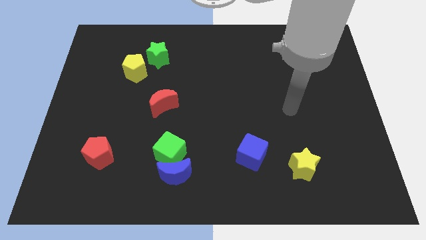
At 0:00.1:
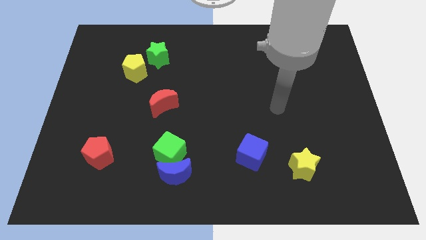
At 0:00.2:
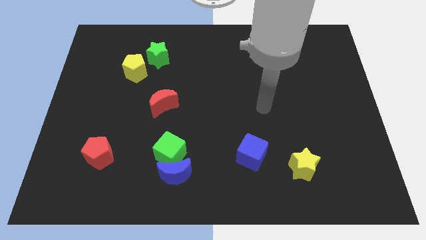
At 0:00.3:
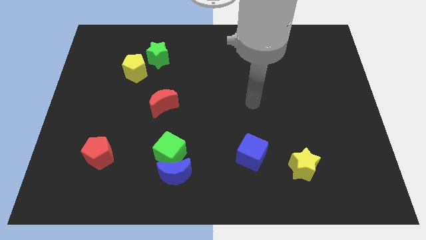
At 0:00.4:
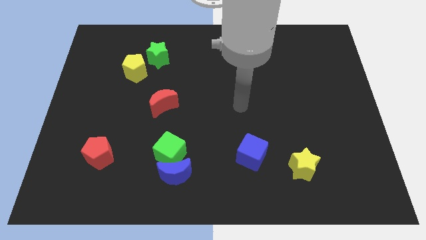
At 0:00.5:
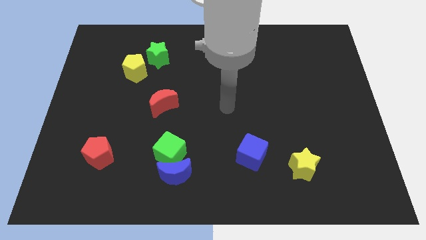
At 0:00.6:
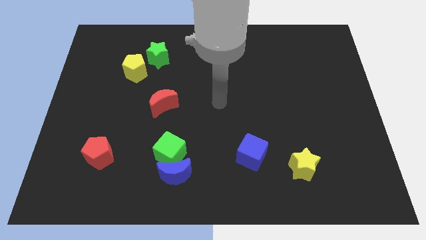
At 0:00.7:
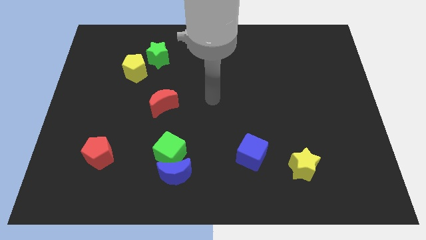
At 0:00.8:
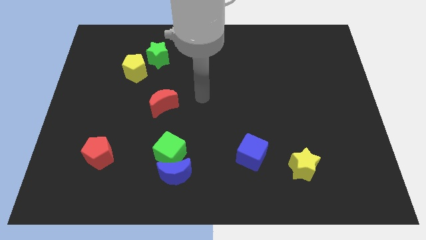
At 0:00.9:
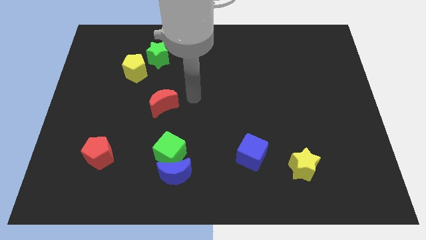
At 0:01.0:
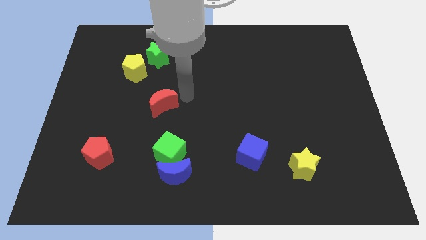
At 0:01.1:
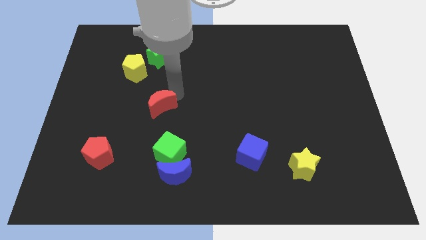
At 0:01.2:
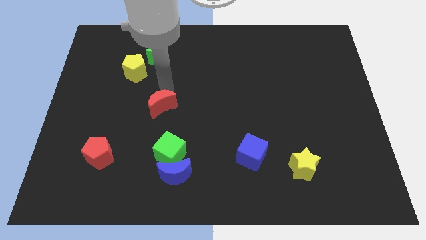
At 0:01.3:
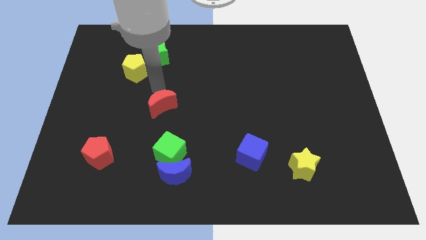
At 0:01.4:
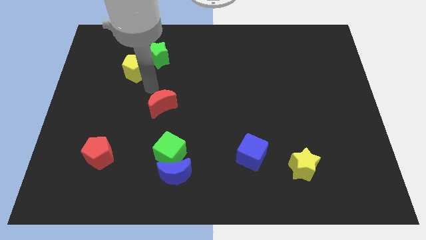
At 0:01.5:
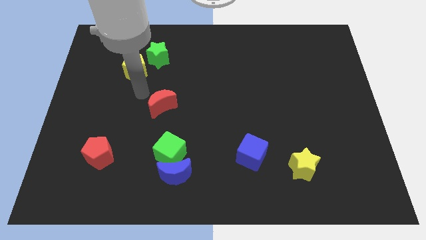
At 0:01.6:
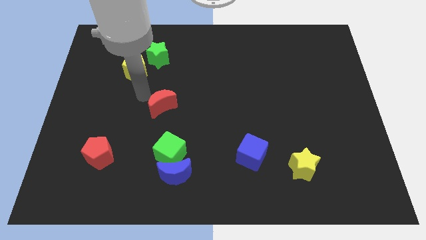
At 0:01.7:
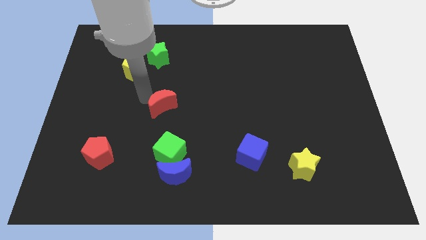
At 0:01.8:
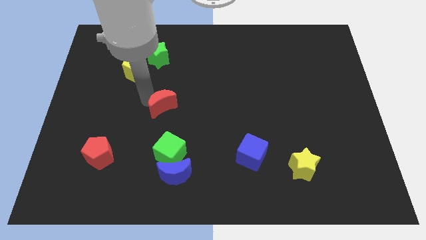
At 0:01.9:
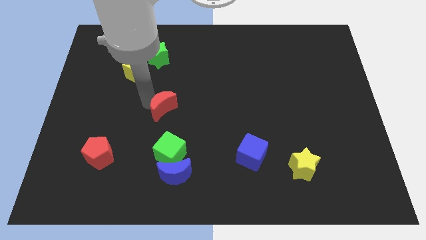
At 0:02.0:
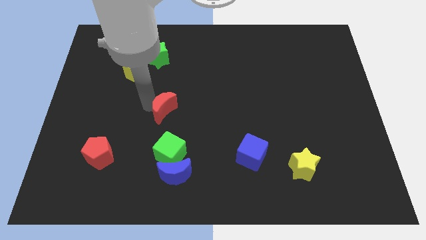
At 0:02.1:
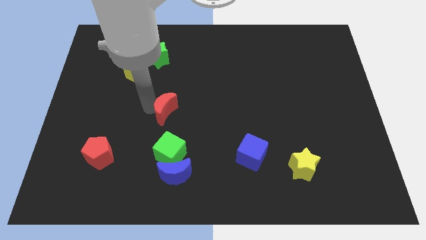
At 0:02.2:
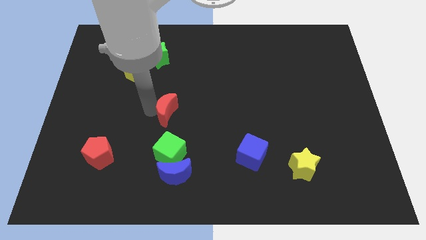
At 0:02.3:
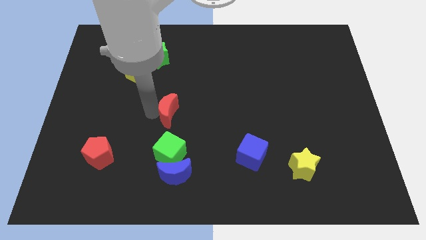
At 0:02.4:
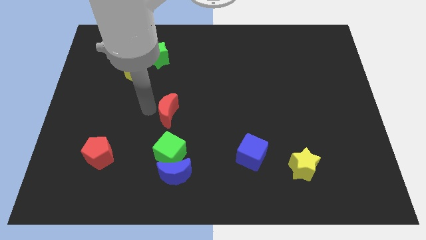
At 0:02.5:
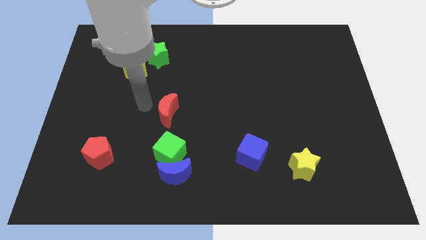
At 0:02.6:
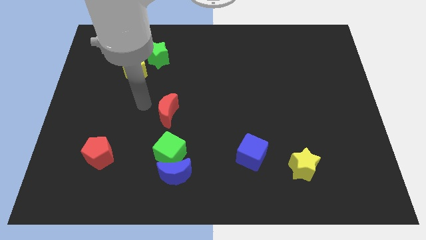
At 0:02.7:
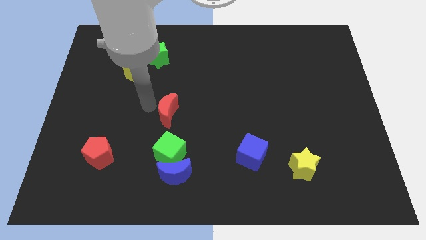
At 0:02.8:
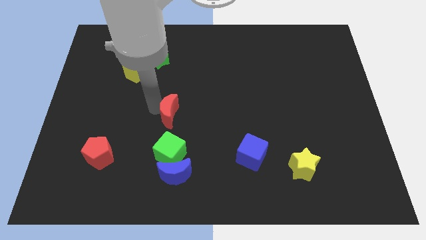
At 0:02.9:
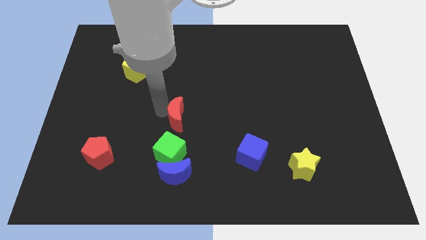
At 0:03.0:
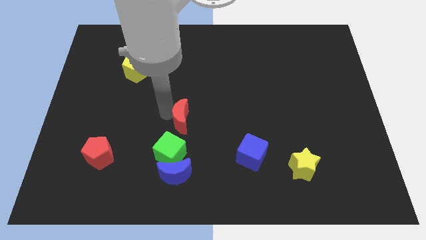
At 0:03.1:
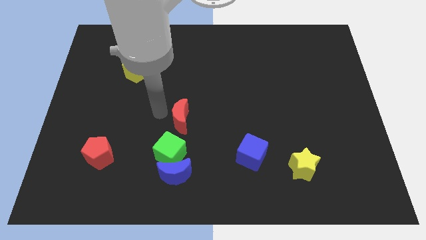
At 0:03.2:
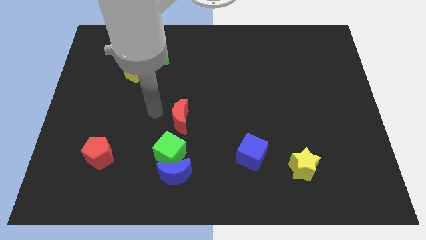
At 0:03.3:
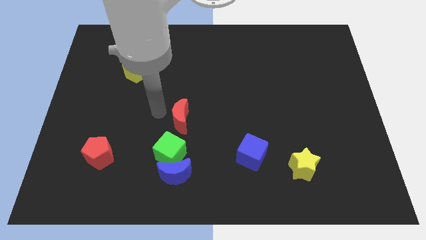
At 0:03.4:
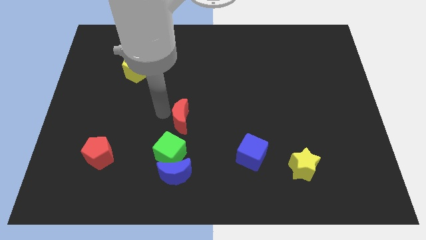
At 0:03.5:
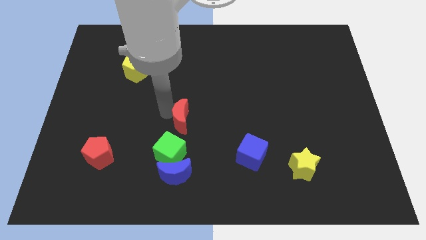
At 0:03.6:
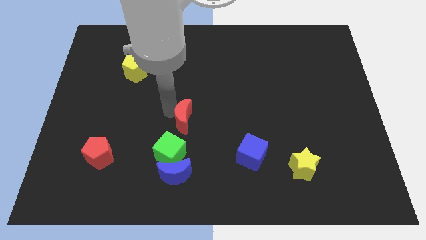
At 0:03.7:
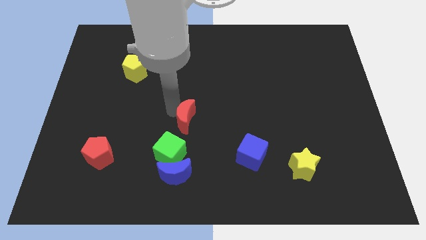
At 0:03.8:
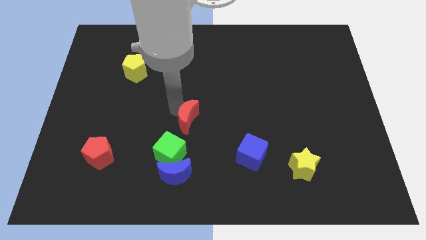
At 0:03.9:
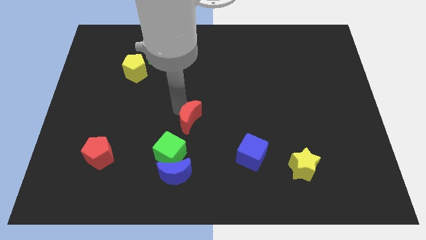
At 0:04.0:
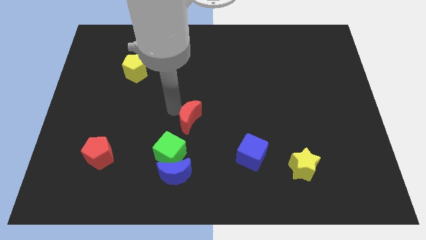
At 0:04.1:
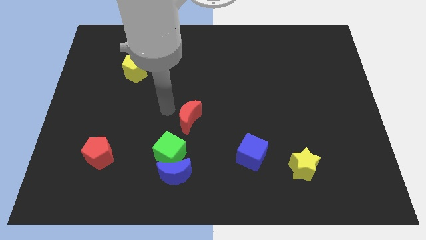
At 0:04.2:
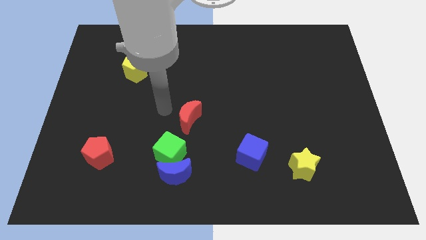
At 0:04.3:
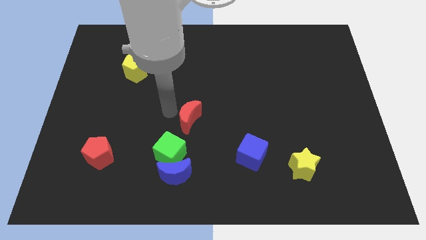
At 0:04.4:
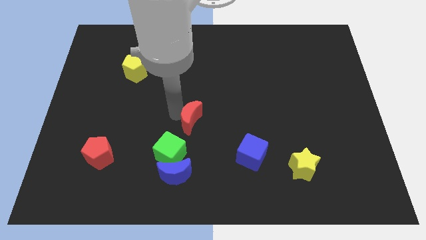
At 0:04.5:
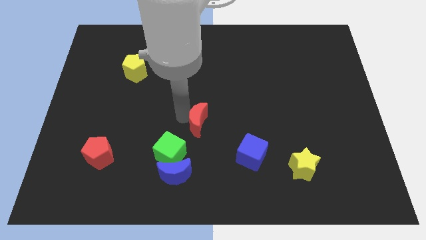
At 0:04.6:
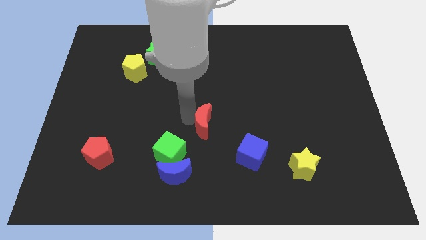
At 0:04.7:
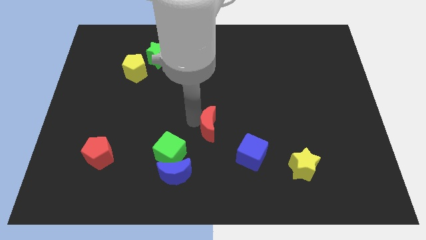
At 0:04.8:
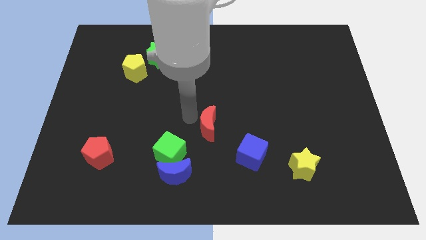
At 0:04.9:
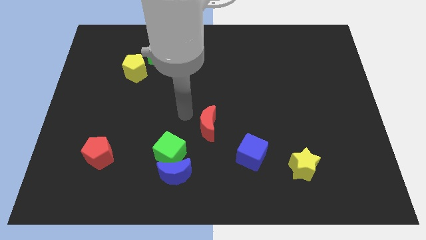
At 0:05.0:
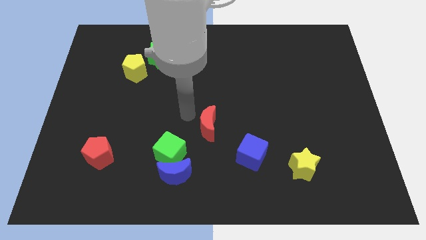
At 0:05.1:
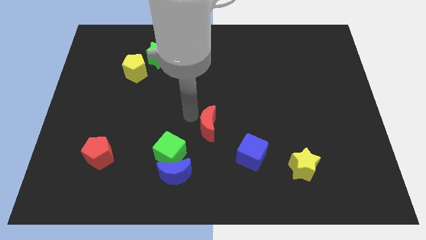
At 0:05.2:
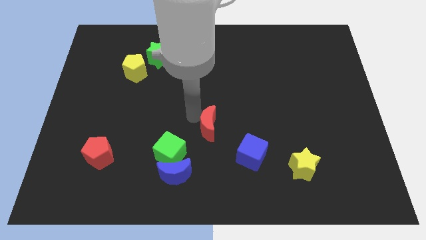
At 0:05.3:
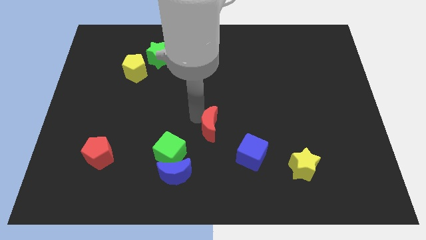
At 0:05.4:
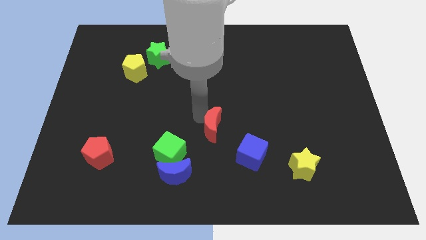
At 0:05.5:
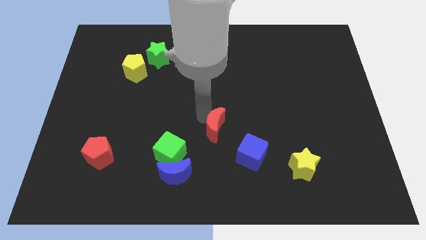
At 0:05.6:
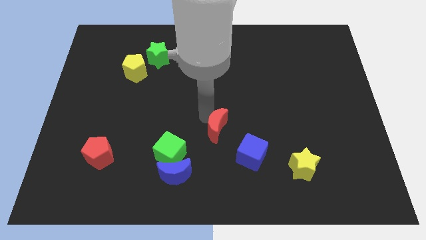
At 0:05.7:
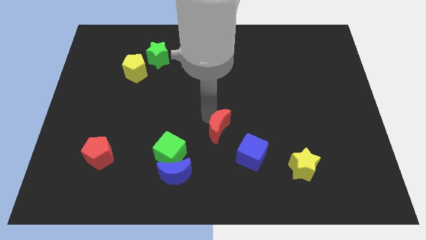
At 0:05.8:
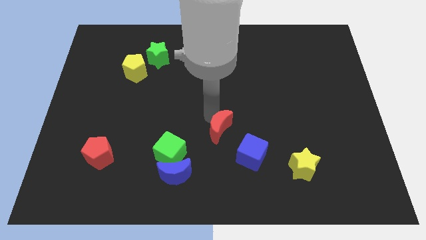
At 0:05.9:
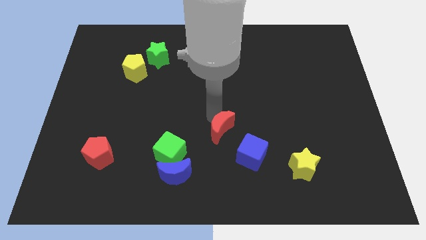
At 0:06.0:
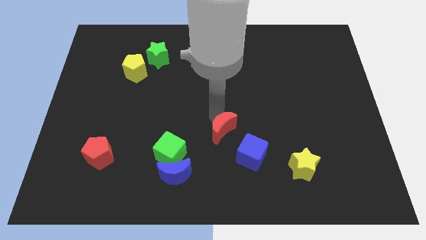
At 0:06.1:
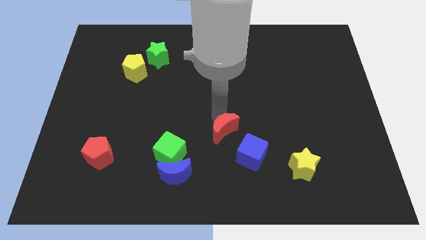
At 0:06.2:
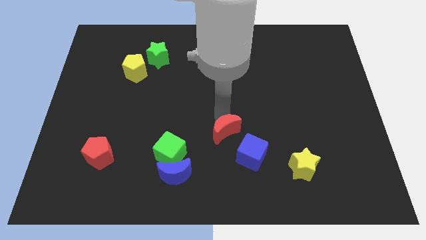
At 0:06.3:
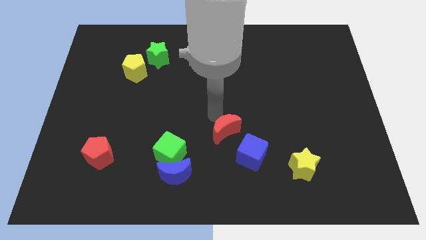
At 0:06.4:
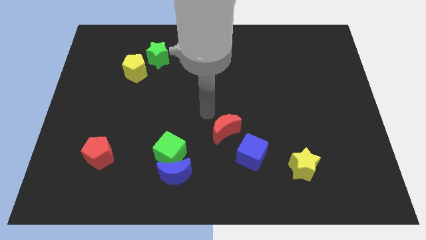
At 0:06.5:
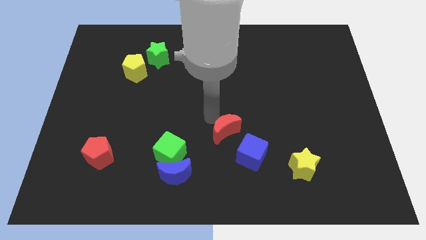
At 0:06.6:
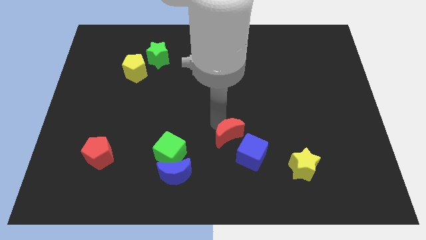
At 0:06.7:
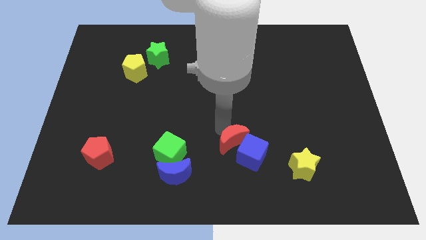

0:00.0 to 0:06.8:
put the red moon towards the blue cube

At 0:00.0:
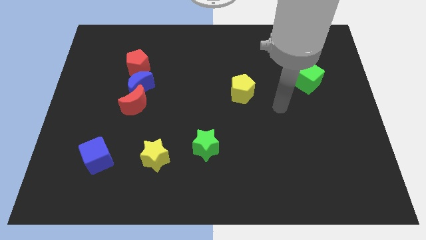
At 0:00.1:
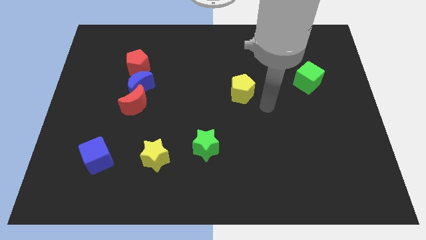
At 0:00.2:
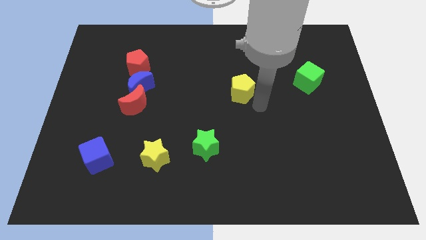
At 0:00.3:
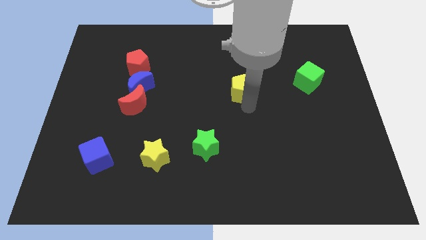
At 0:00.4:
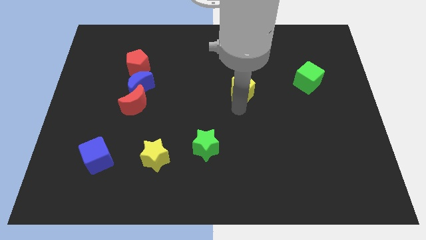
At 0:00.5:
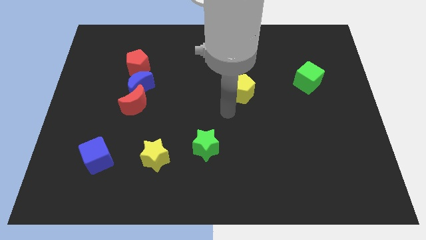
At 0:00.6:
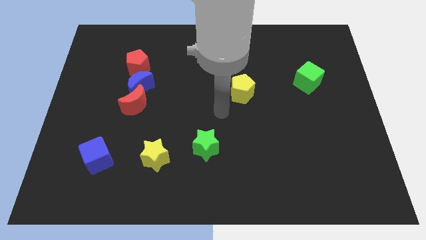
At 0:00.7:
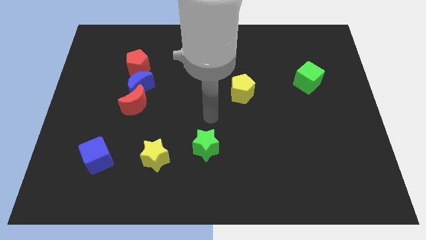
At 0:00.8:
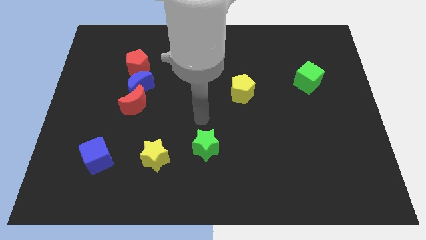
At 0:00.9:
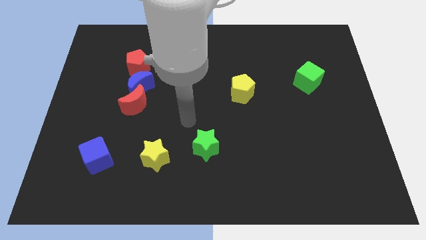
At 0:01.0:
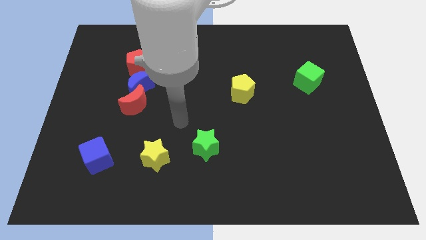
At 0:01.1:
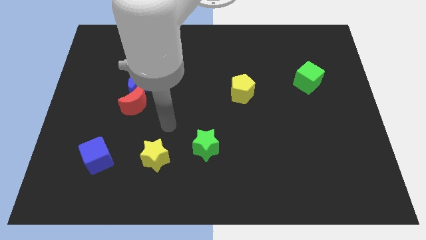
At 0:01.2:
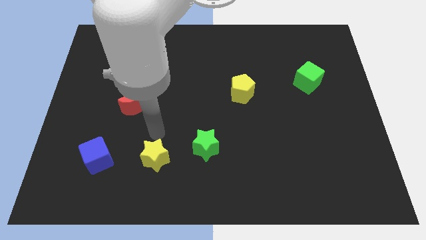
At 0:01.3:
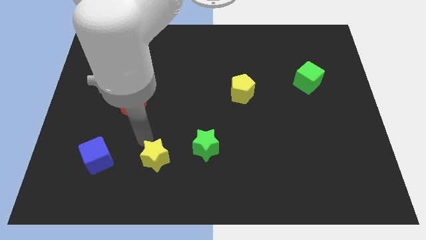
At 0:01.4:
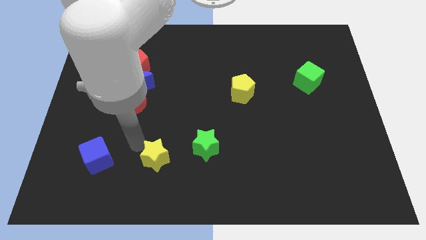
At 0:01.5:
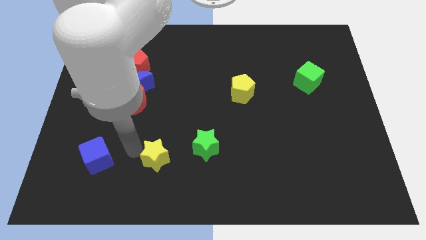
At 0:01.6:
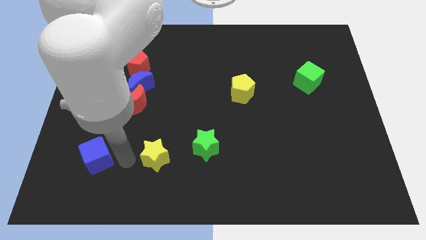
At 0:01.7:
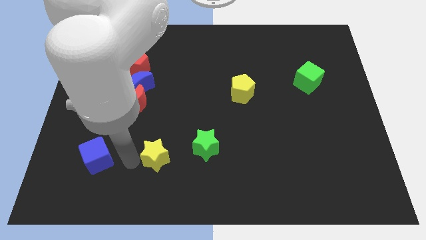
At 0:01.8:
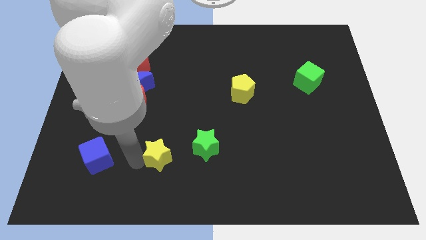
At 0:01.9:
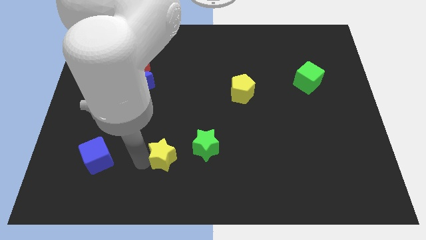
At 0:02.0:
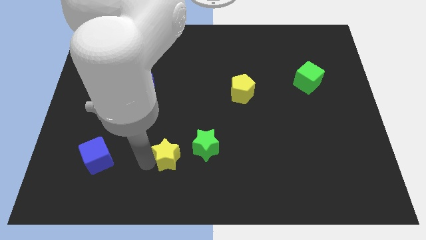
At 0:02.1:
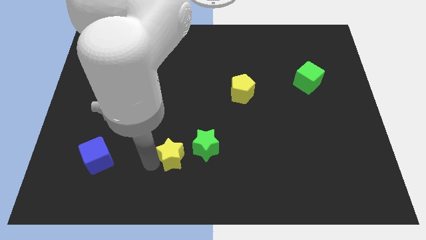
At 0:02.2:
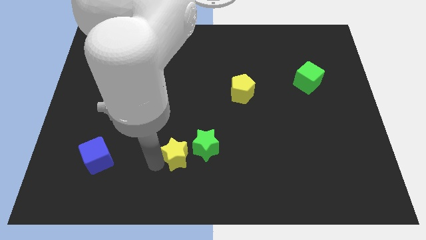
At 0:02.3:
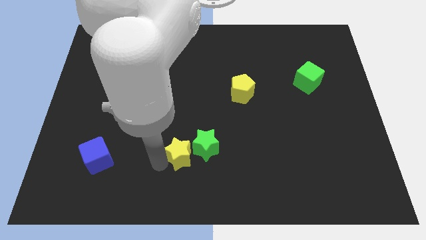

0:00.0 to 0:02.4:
slide the yellow star towards the green star
